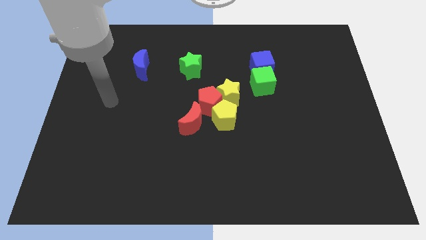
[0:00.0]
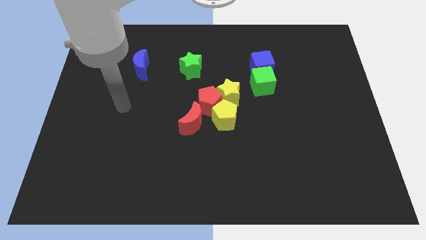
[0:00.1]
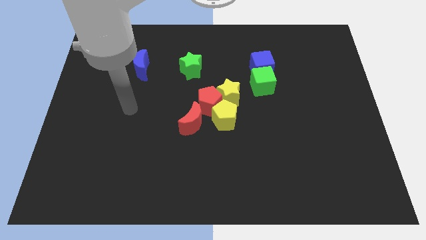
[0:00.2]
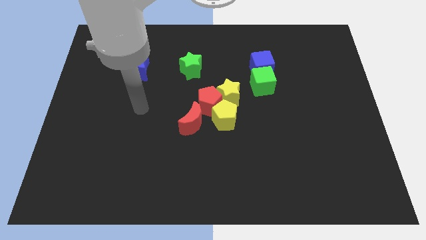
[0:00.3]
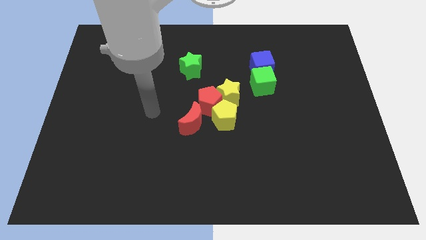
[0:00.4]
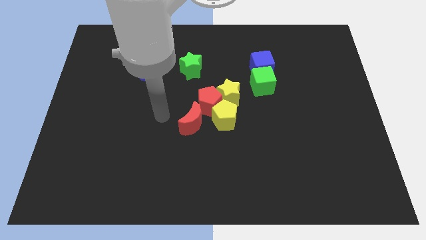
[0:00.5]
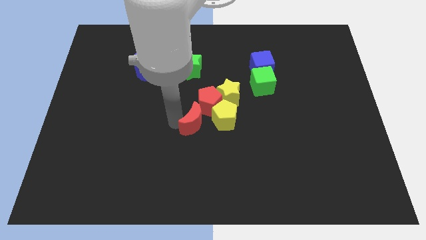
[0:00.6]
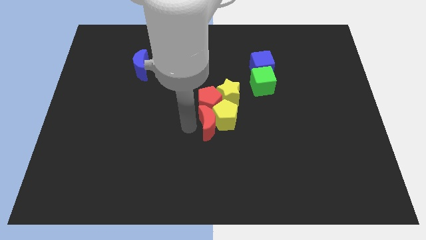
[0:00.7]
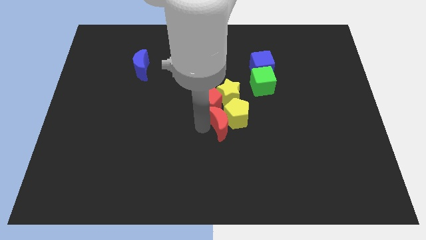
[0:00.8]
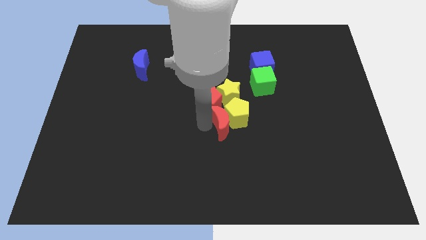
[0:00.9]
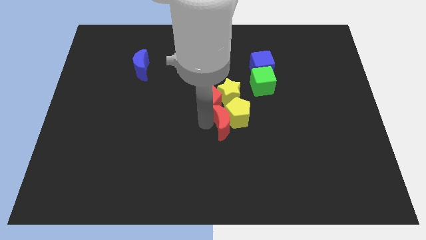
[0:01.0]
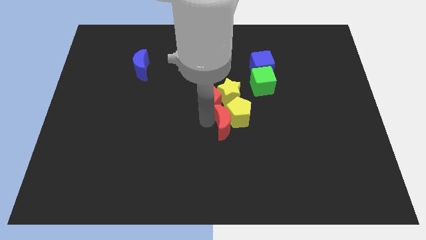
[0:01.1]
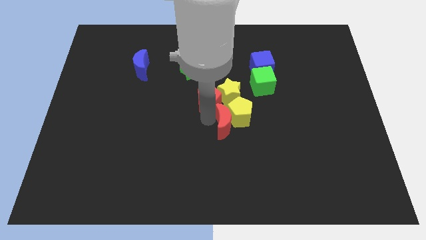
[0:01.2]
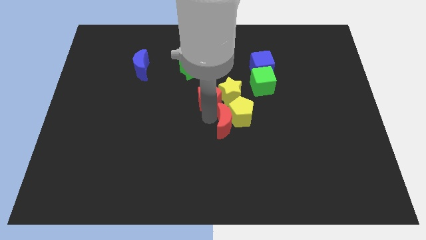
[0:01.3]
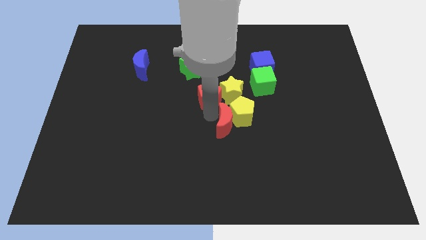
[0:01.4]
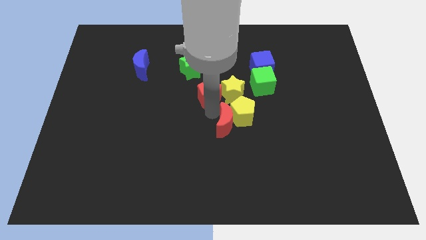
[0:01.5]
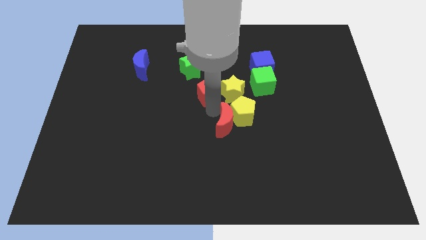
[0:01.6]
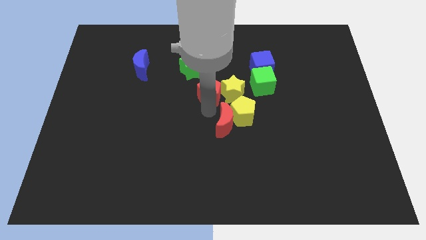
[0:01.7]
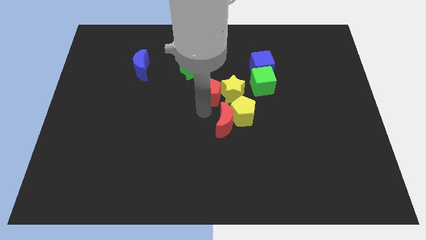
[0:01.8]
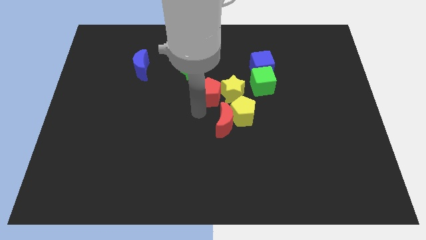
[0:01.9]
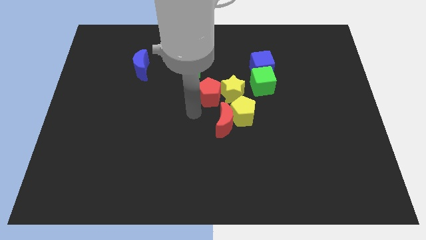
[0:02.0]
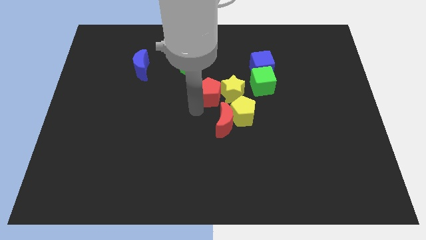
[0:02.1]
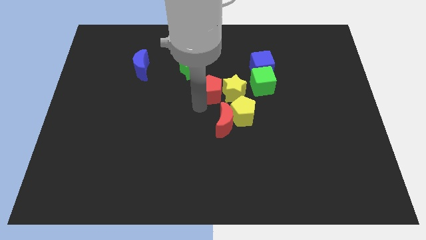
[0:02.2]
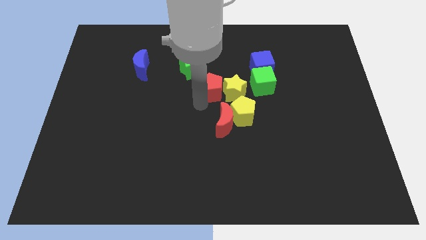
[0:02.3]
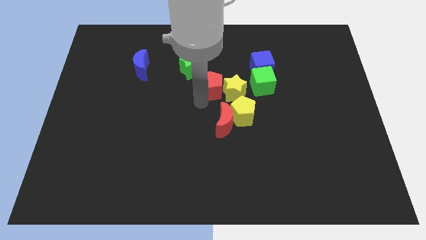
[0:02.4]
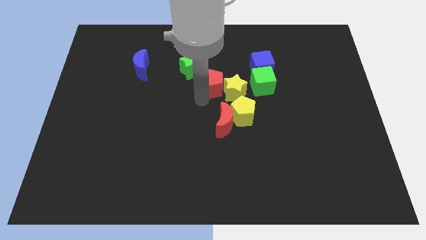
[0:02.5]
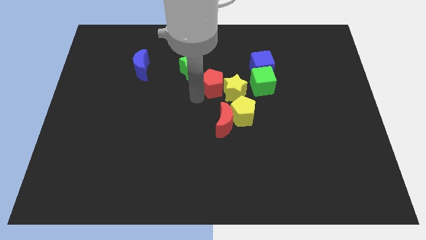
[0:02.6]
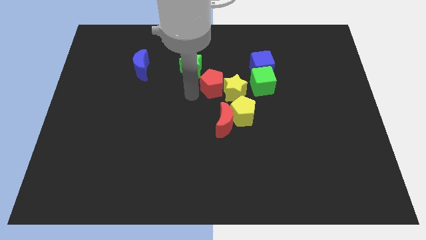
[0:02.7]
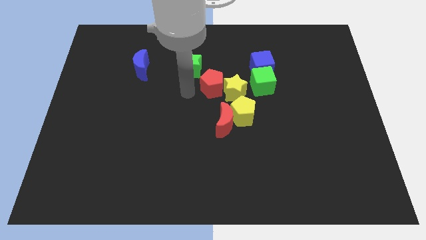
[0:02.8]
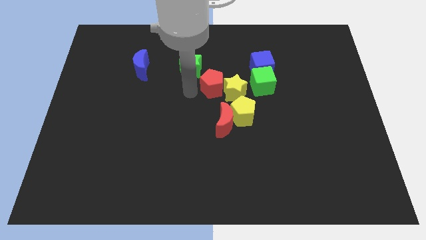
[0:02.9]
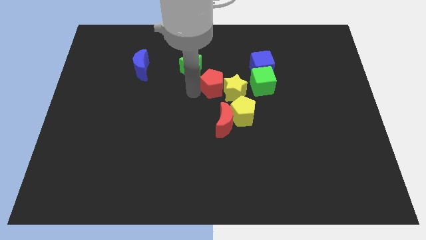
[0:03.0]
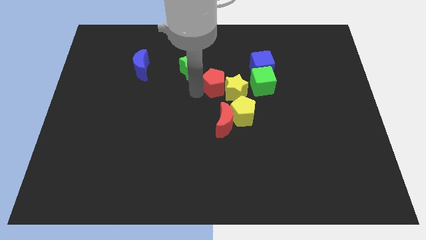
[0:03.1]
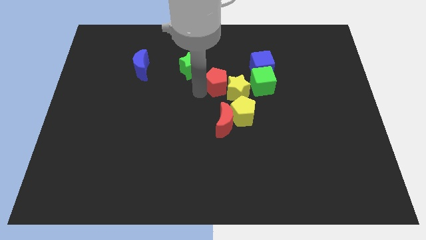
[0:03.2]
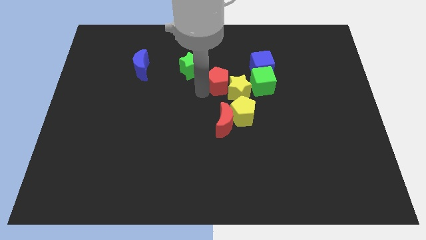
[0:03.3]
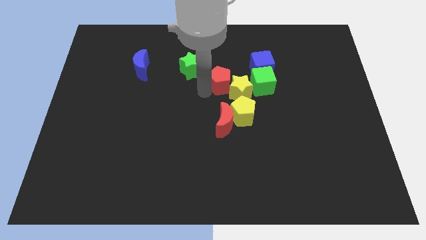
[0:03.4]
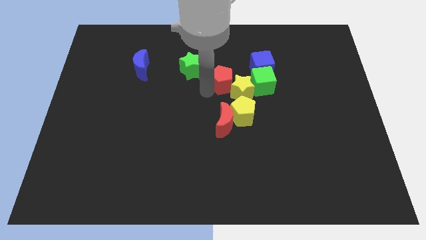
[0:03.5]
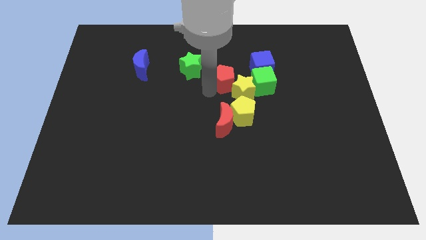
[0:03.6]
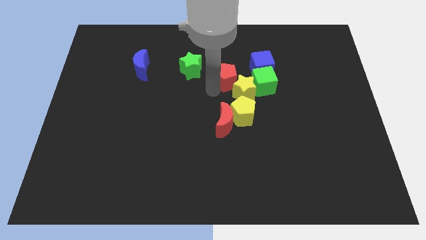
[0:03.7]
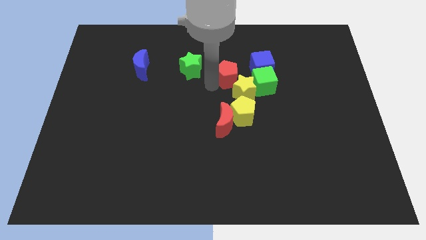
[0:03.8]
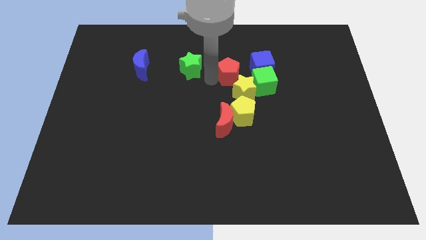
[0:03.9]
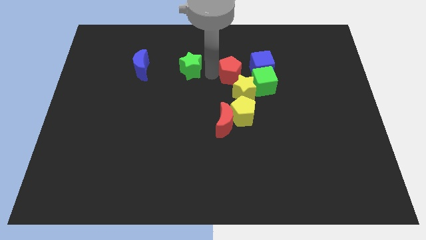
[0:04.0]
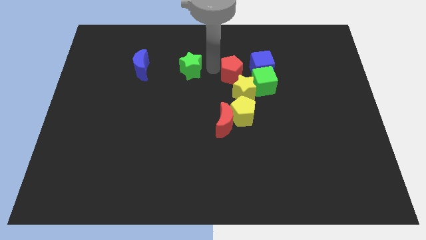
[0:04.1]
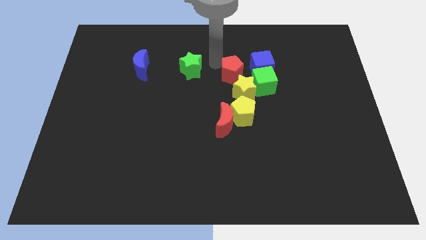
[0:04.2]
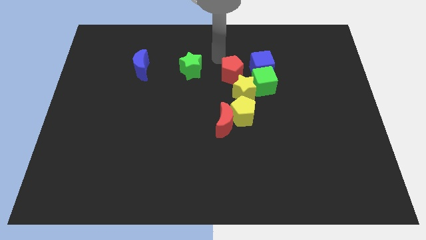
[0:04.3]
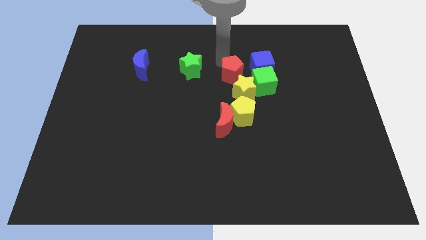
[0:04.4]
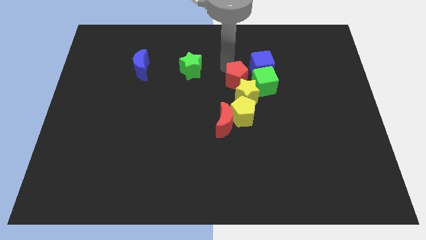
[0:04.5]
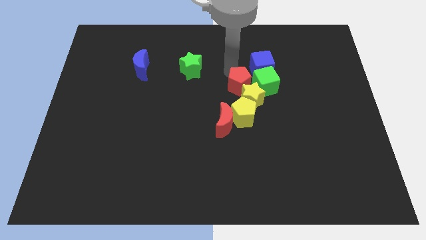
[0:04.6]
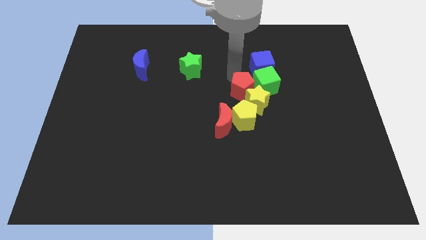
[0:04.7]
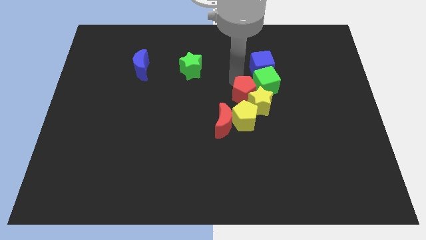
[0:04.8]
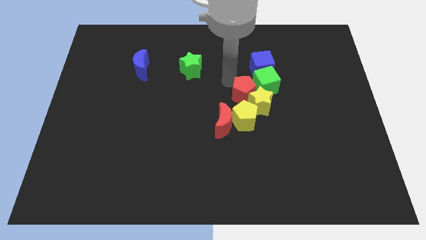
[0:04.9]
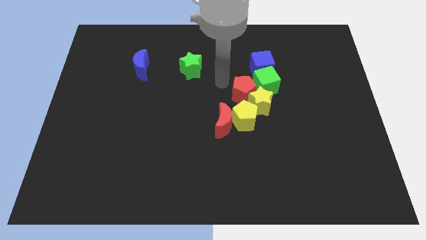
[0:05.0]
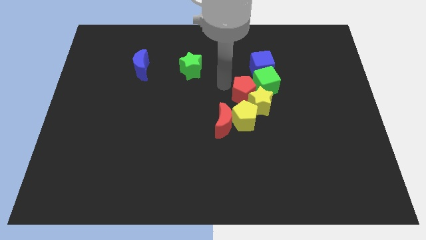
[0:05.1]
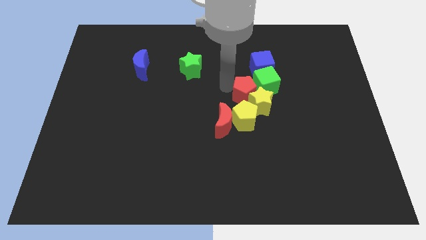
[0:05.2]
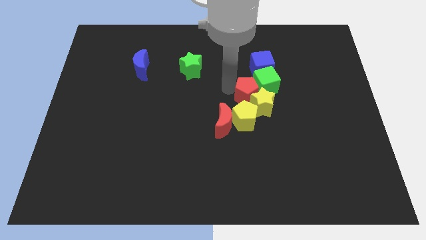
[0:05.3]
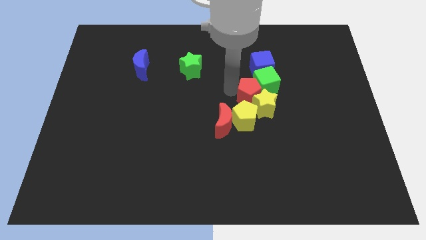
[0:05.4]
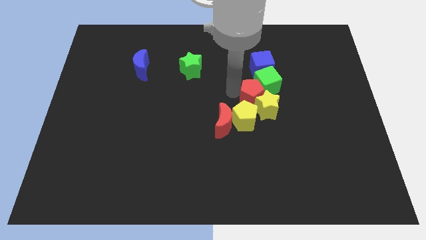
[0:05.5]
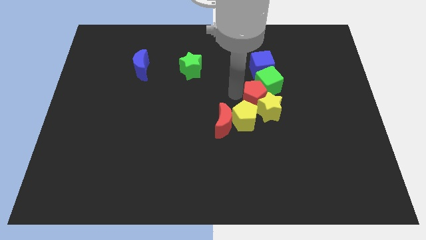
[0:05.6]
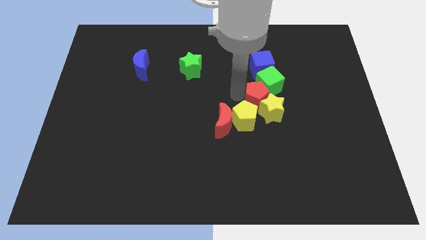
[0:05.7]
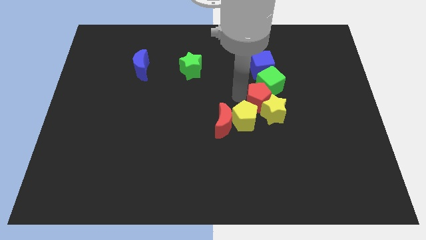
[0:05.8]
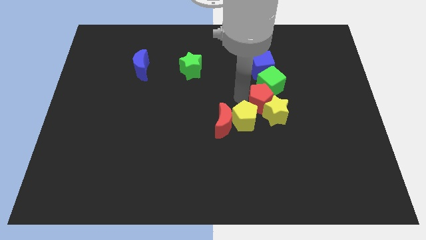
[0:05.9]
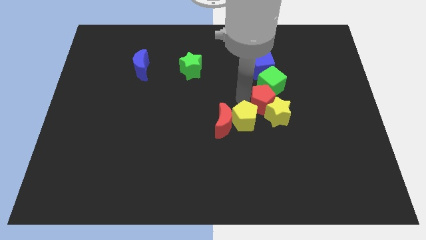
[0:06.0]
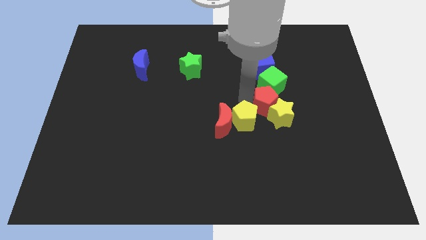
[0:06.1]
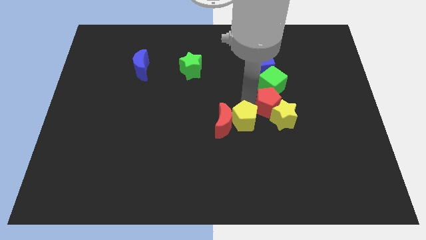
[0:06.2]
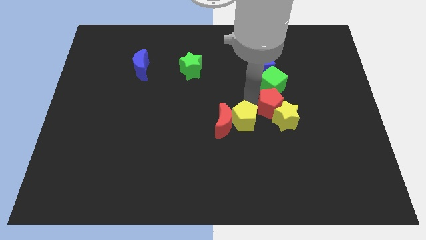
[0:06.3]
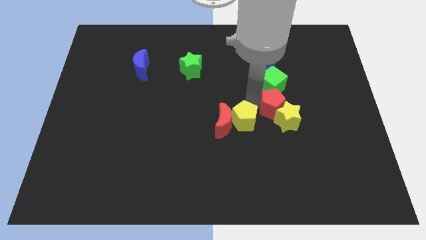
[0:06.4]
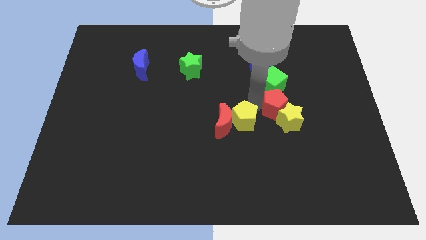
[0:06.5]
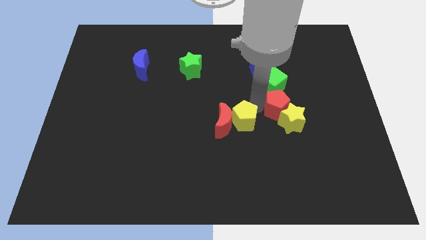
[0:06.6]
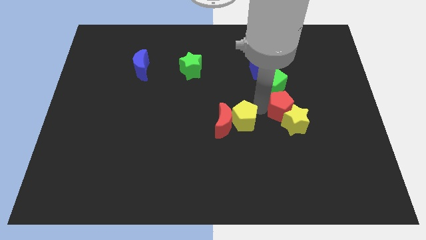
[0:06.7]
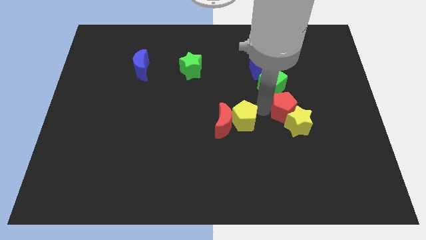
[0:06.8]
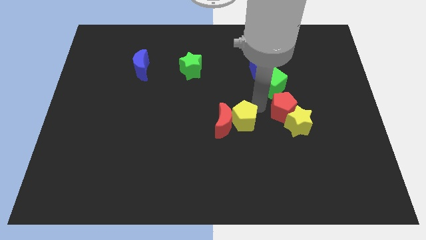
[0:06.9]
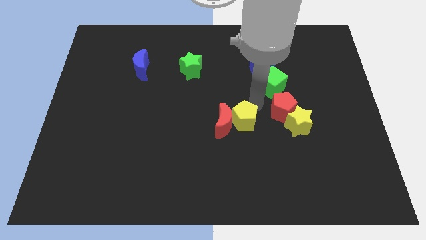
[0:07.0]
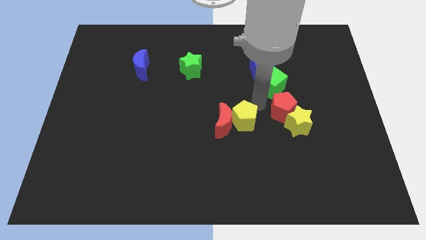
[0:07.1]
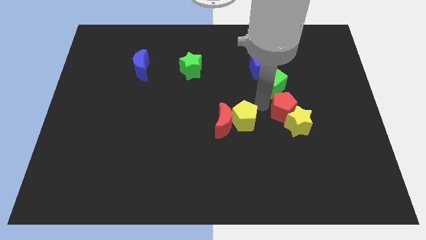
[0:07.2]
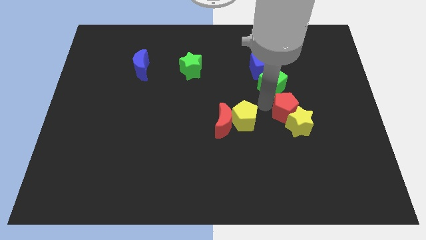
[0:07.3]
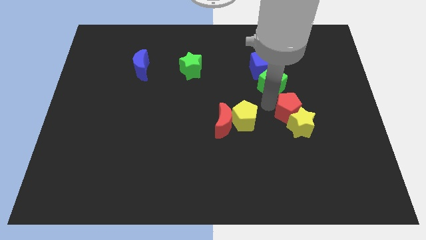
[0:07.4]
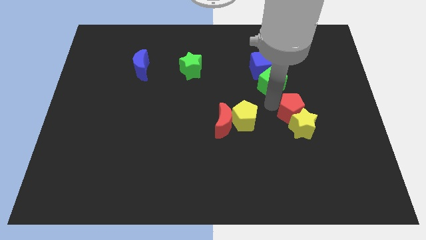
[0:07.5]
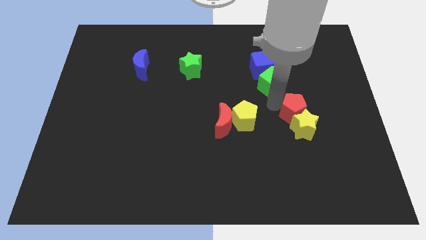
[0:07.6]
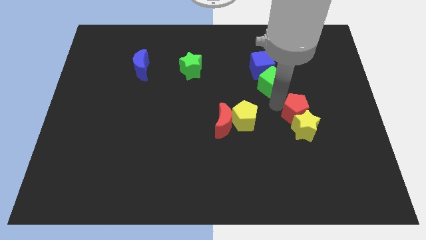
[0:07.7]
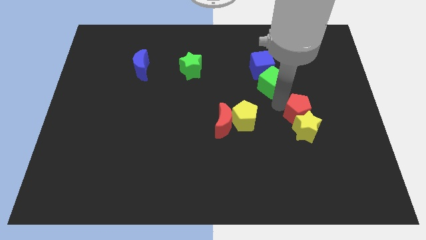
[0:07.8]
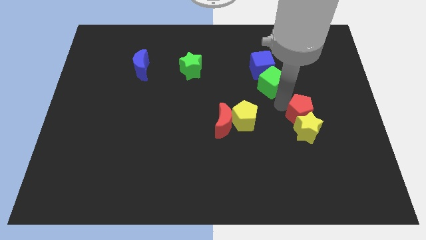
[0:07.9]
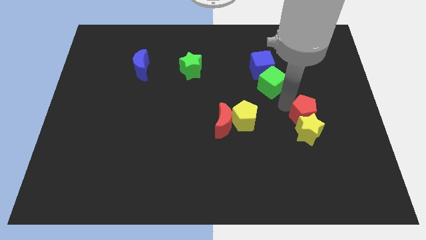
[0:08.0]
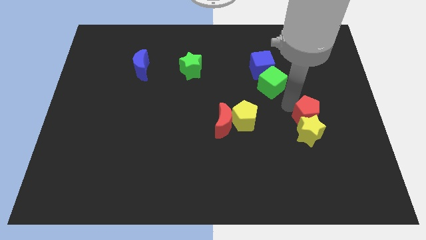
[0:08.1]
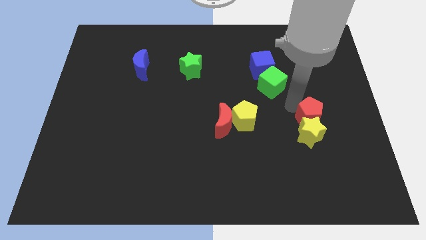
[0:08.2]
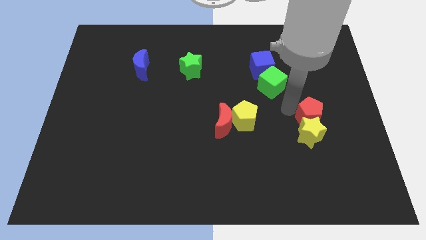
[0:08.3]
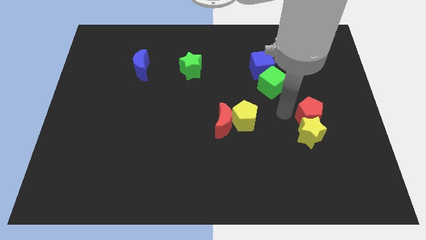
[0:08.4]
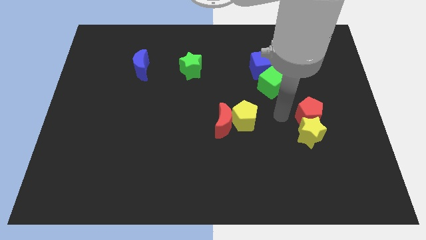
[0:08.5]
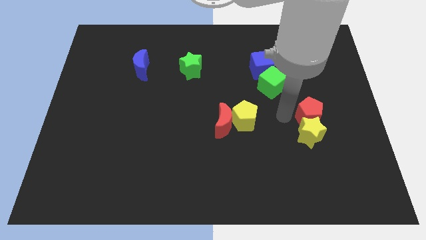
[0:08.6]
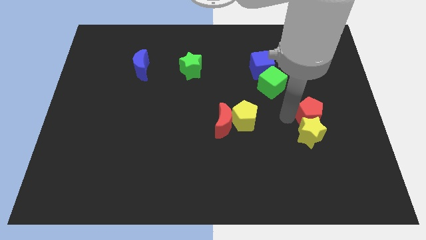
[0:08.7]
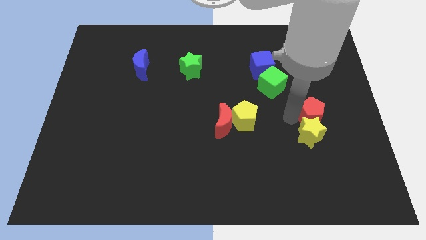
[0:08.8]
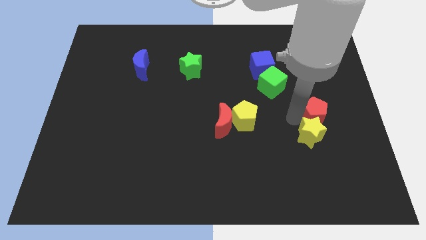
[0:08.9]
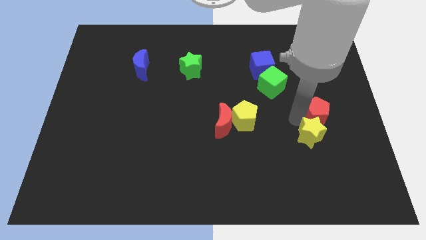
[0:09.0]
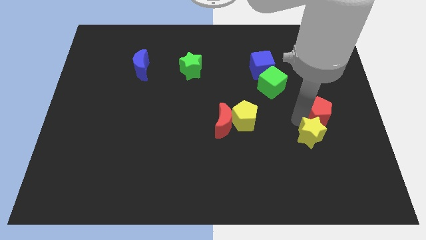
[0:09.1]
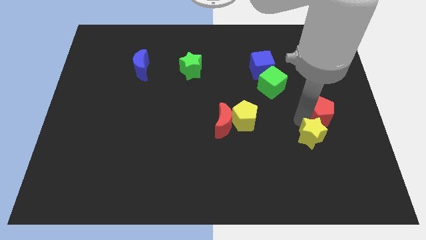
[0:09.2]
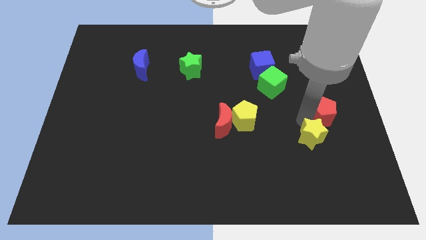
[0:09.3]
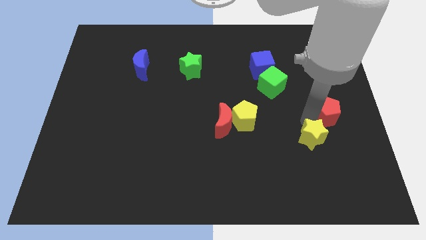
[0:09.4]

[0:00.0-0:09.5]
slide the red pentagon to the center right
